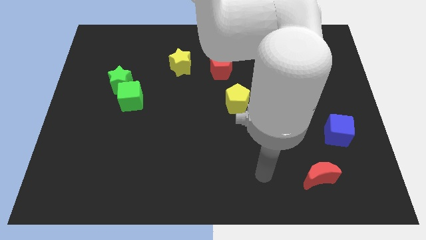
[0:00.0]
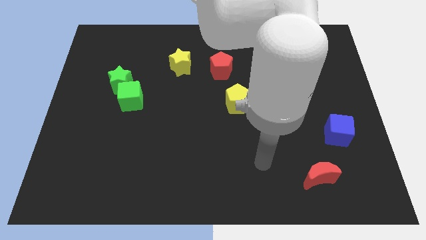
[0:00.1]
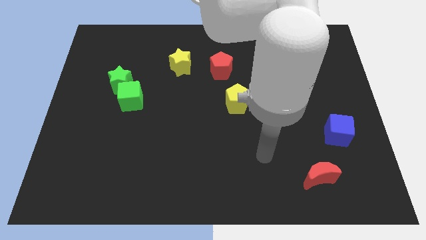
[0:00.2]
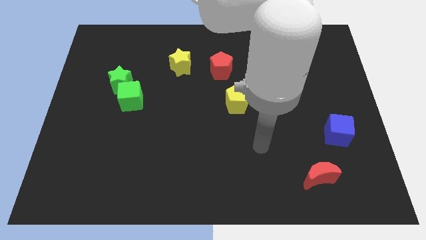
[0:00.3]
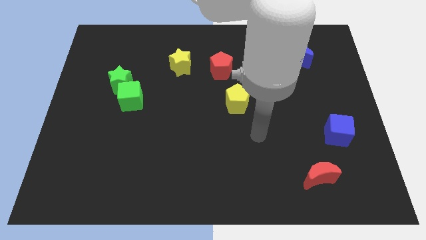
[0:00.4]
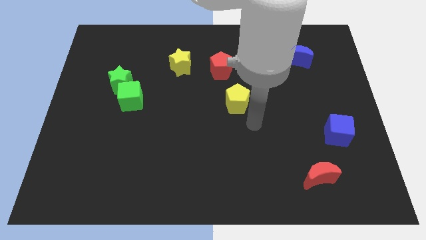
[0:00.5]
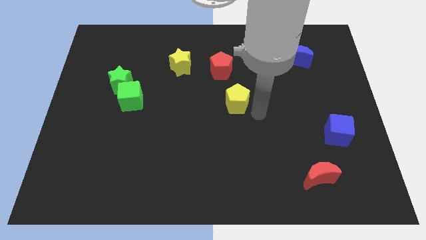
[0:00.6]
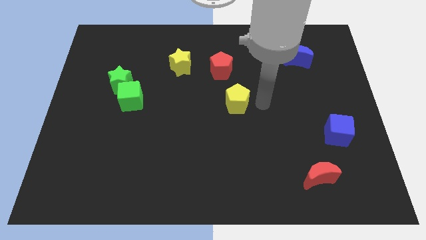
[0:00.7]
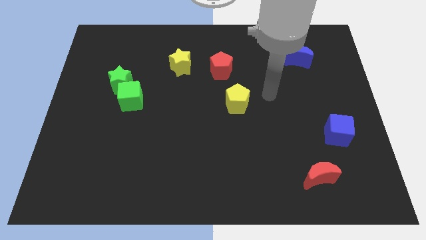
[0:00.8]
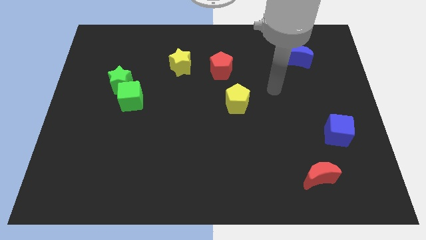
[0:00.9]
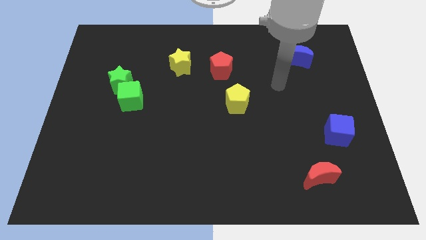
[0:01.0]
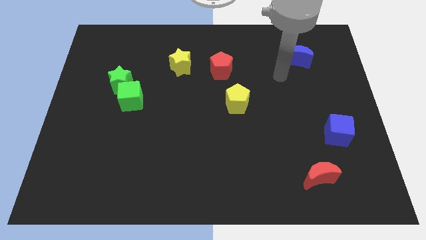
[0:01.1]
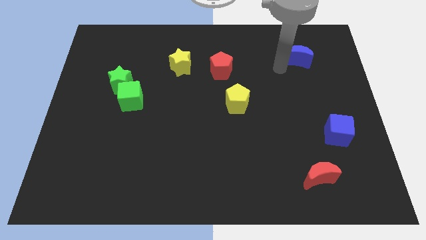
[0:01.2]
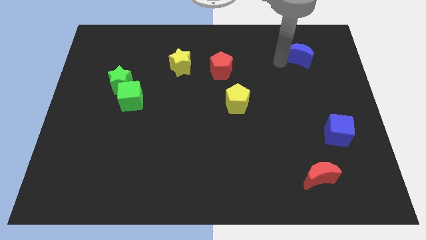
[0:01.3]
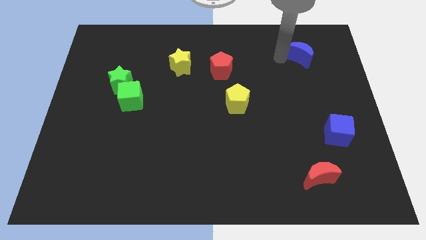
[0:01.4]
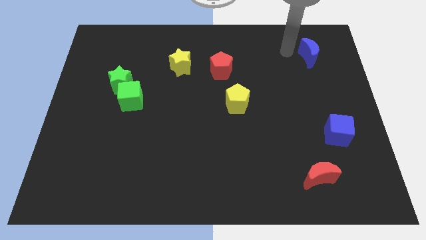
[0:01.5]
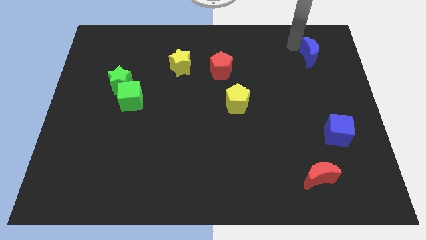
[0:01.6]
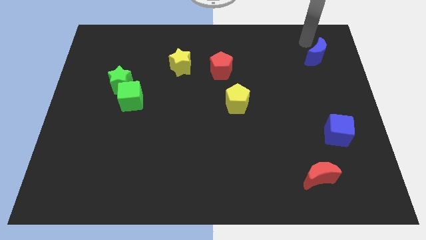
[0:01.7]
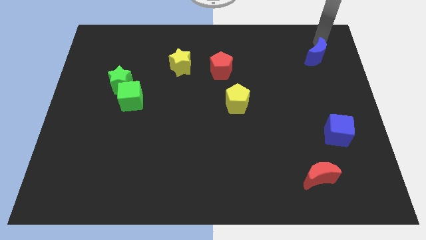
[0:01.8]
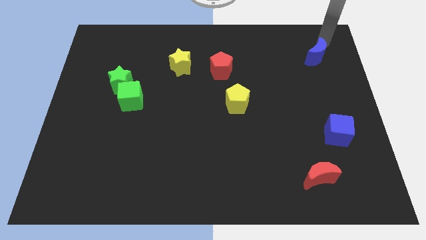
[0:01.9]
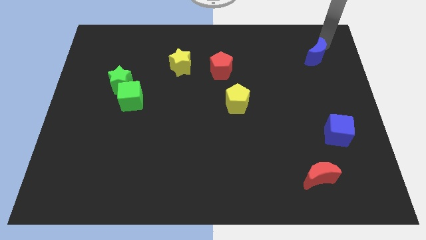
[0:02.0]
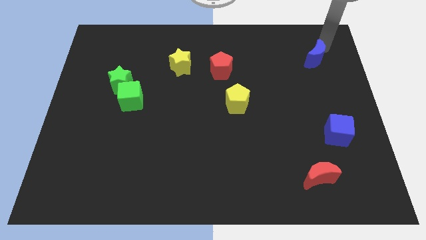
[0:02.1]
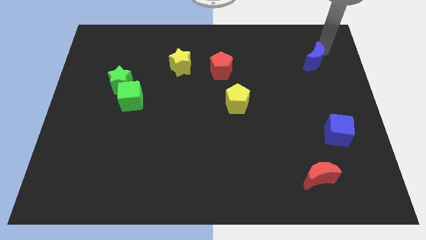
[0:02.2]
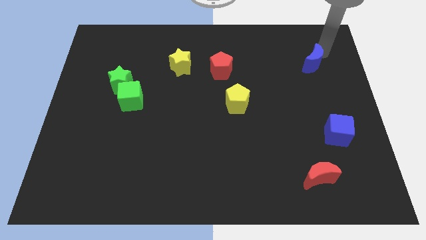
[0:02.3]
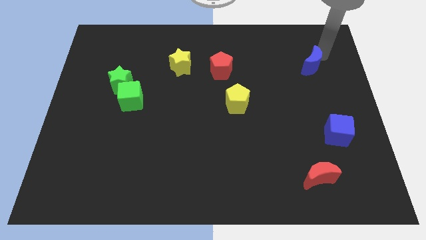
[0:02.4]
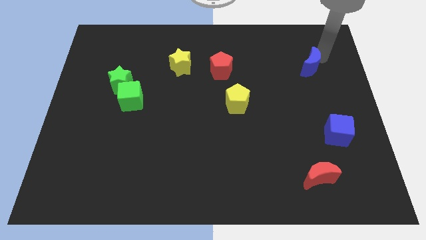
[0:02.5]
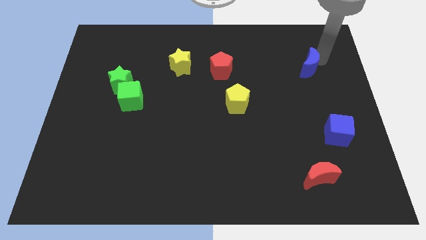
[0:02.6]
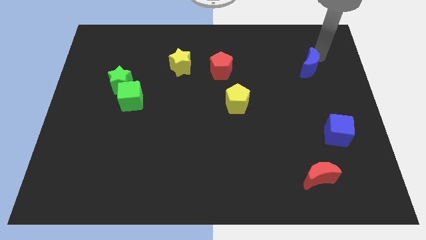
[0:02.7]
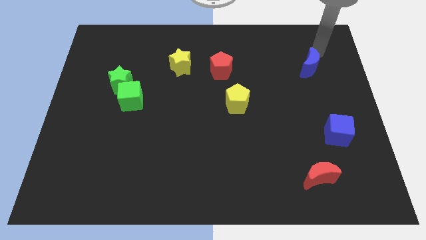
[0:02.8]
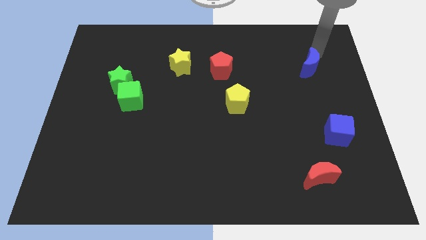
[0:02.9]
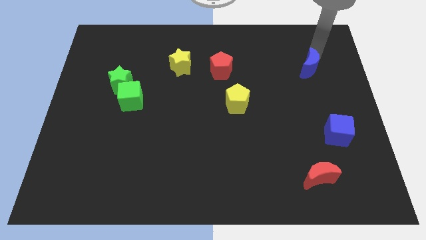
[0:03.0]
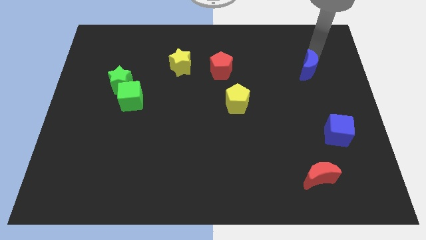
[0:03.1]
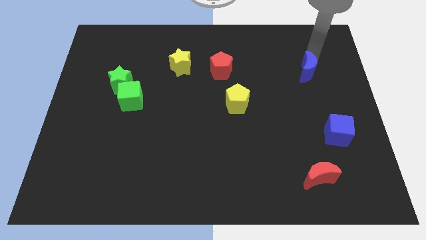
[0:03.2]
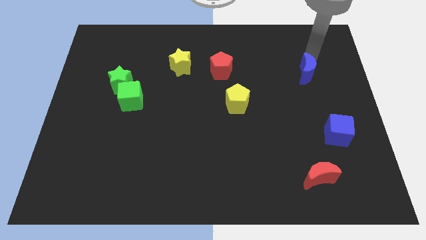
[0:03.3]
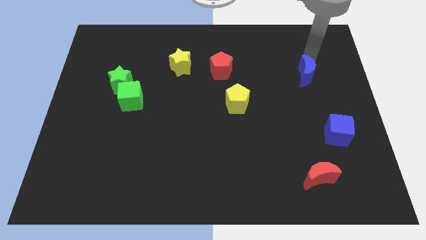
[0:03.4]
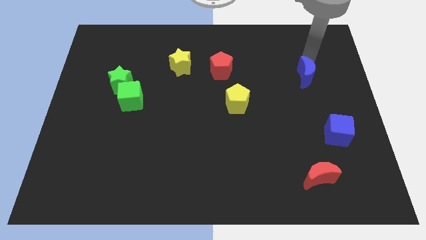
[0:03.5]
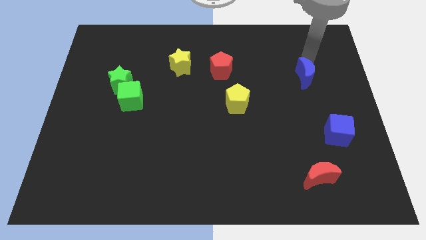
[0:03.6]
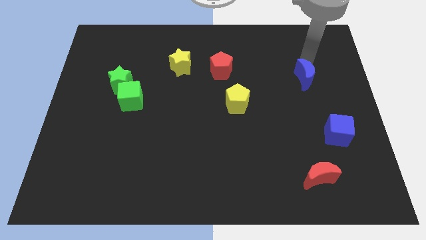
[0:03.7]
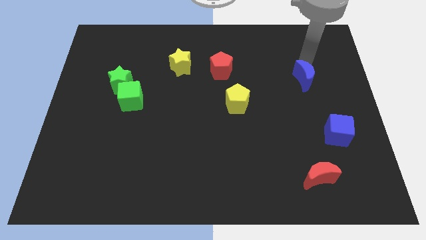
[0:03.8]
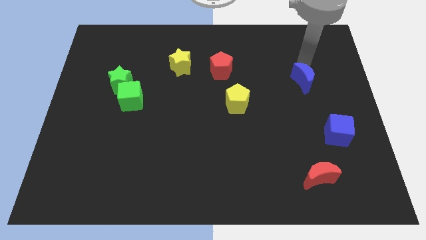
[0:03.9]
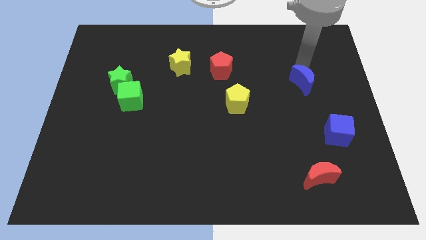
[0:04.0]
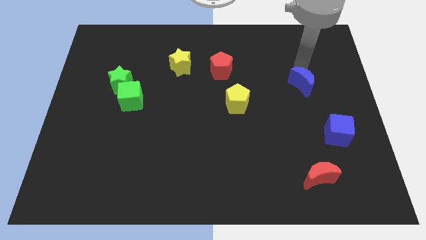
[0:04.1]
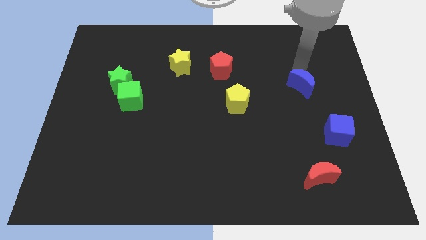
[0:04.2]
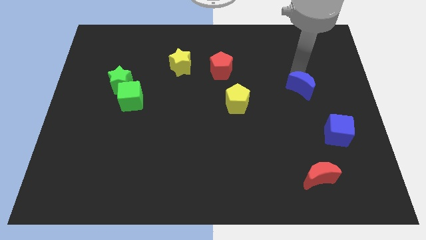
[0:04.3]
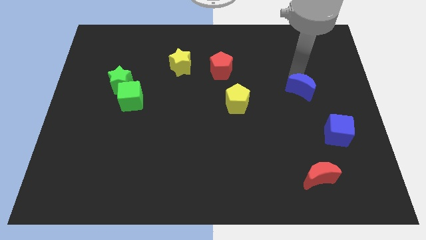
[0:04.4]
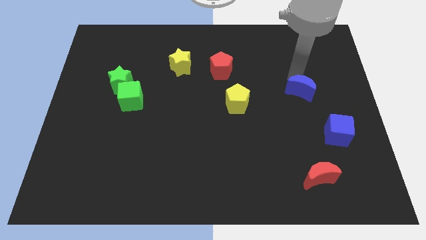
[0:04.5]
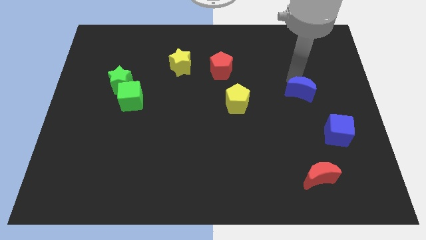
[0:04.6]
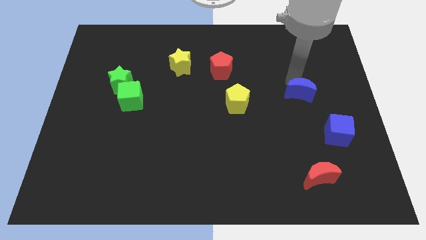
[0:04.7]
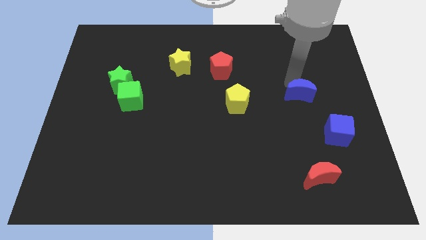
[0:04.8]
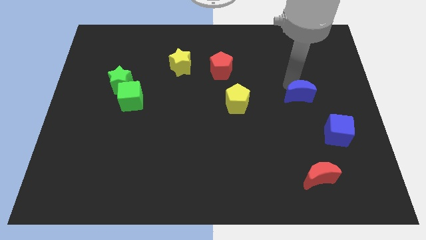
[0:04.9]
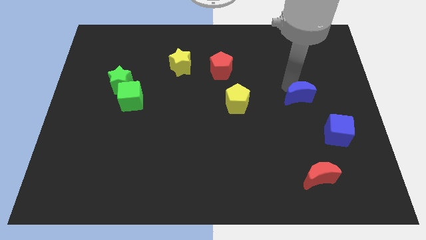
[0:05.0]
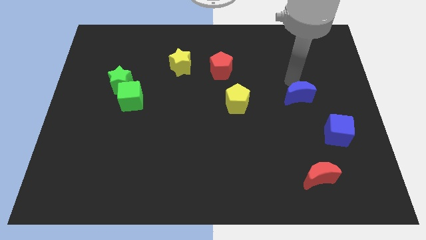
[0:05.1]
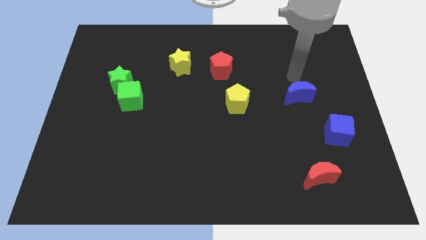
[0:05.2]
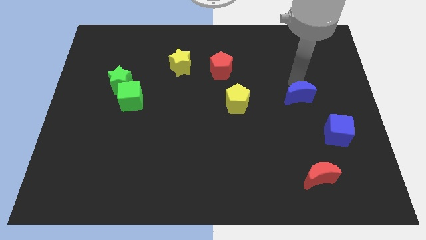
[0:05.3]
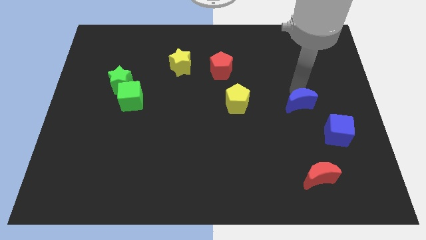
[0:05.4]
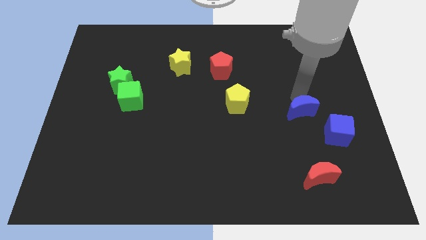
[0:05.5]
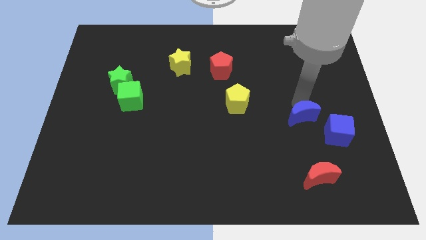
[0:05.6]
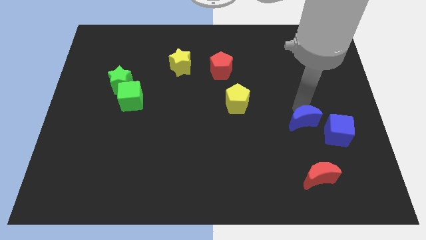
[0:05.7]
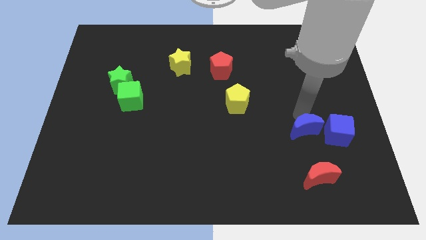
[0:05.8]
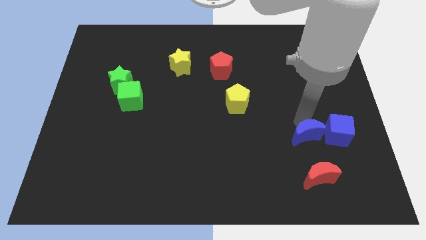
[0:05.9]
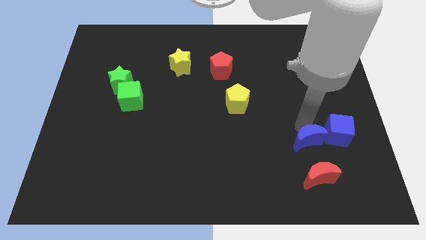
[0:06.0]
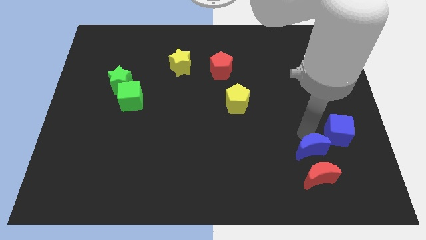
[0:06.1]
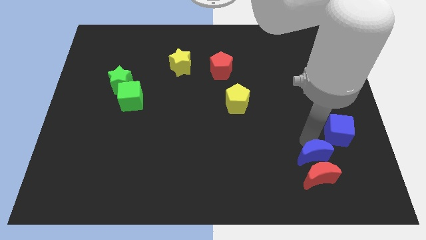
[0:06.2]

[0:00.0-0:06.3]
put the blue moon to the red moon

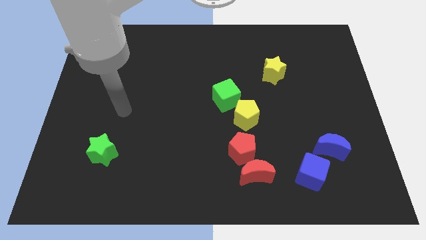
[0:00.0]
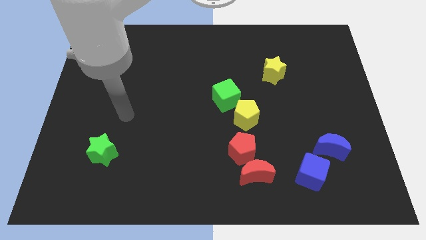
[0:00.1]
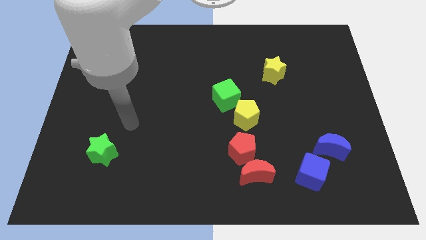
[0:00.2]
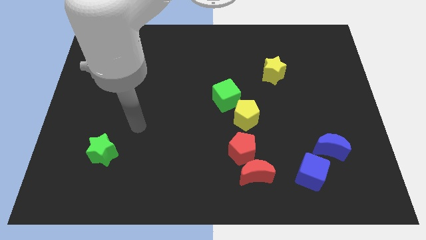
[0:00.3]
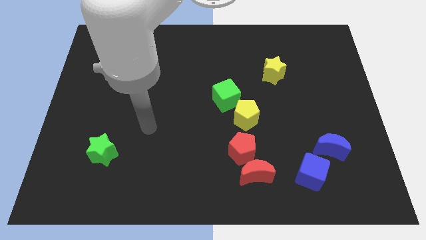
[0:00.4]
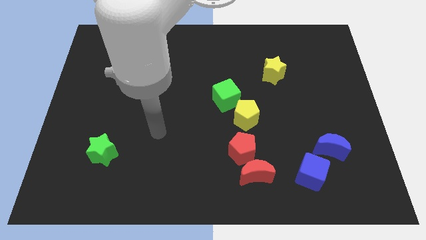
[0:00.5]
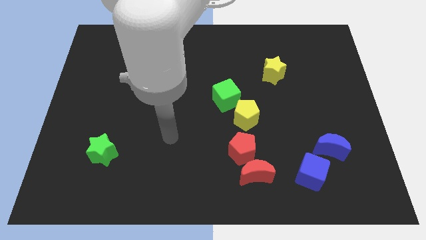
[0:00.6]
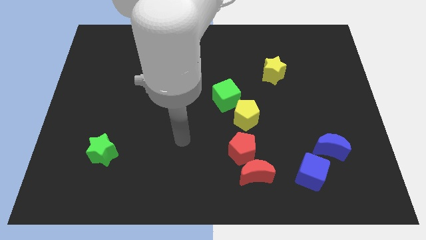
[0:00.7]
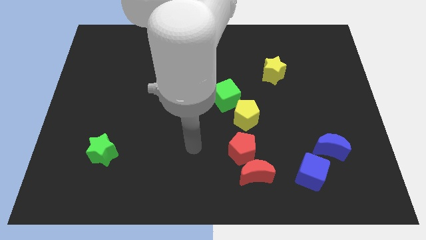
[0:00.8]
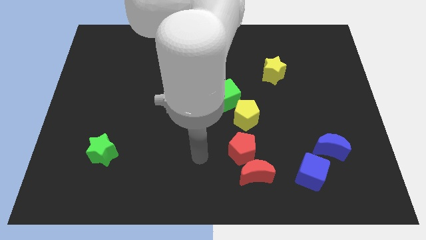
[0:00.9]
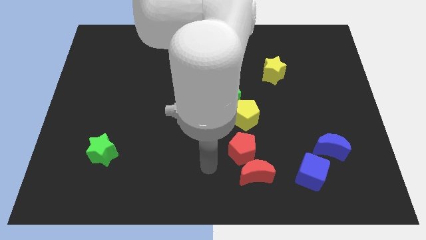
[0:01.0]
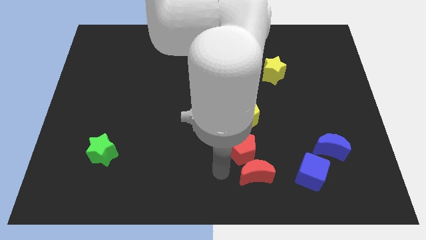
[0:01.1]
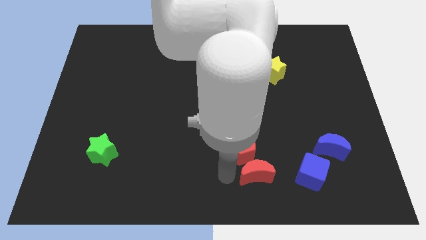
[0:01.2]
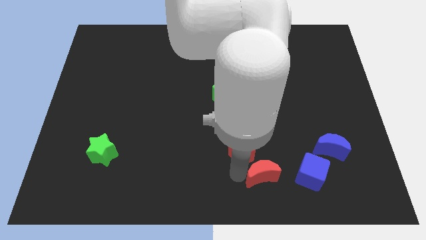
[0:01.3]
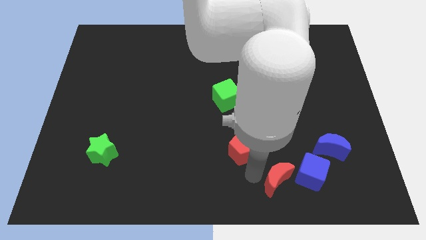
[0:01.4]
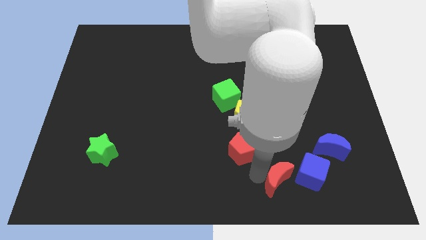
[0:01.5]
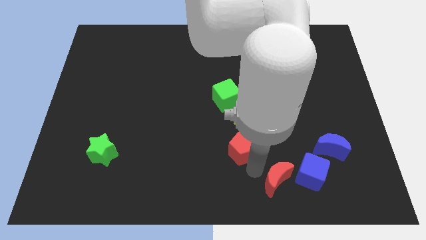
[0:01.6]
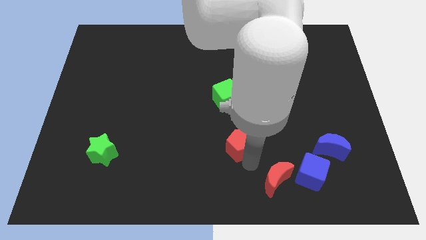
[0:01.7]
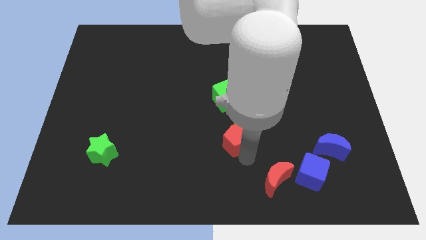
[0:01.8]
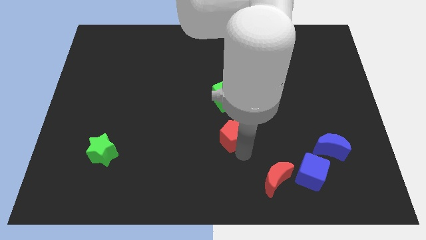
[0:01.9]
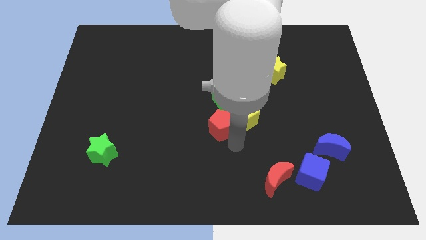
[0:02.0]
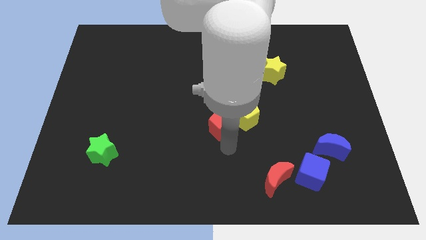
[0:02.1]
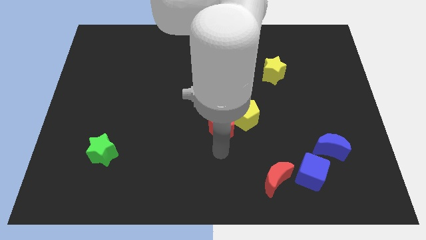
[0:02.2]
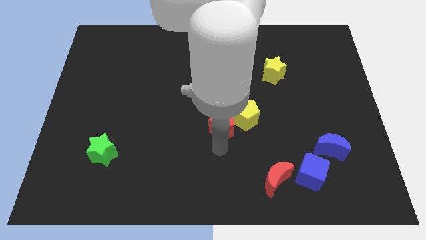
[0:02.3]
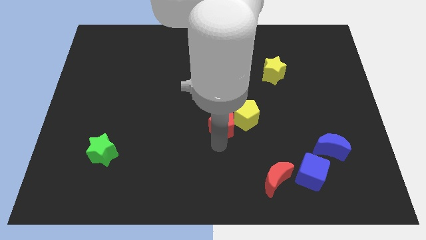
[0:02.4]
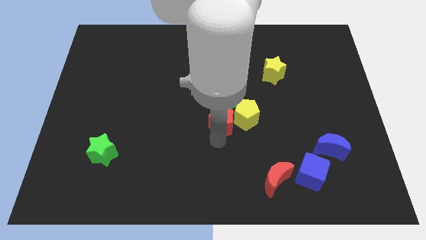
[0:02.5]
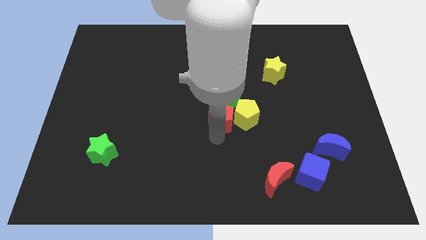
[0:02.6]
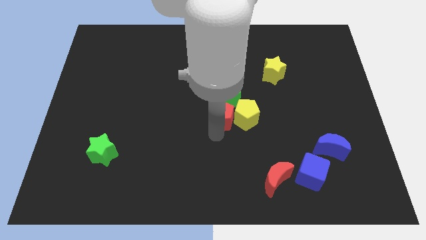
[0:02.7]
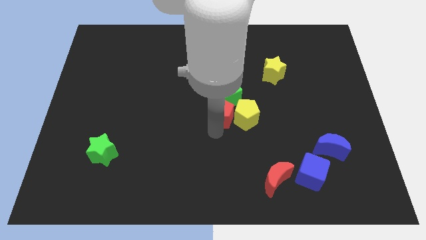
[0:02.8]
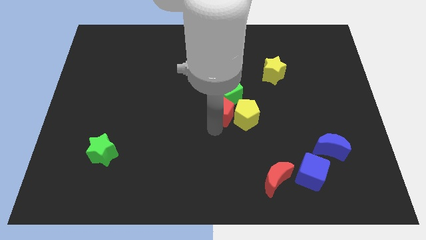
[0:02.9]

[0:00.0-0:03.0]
push the red pentagon close to the green cube
